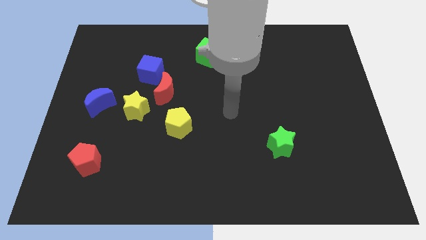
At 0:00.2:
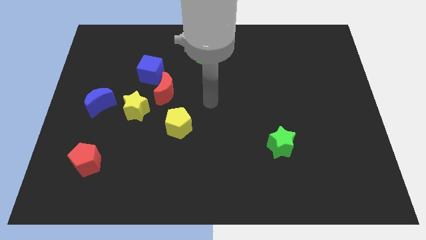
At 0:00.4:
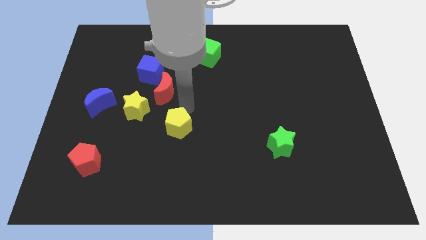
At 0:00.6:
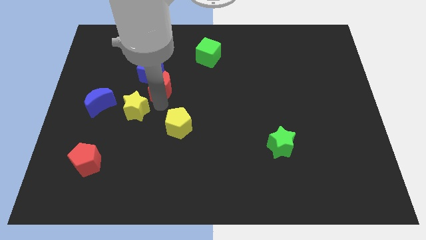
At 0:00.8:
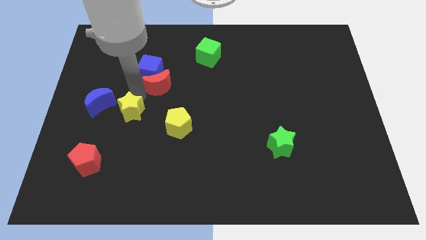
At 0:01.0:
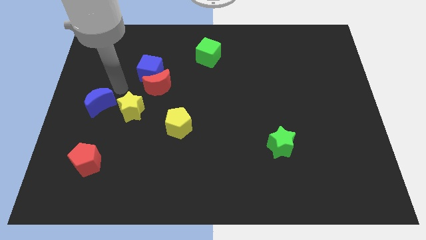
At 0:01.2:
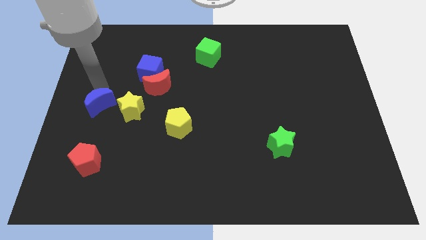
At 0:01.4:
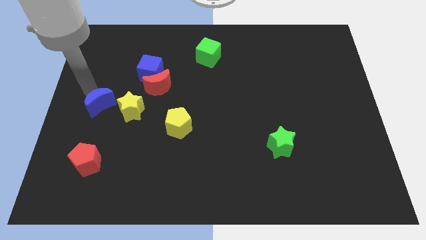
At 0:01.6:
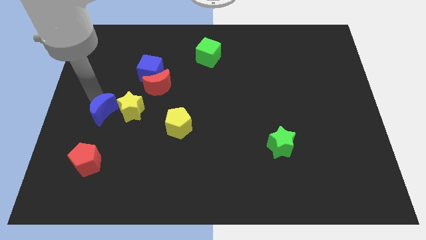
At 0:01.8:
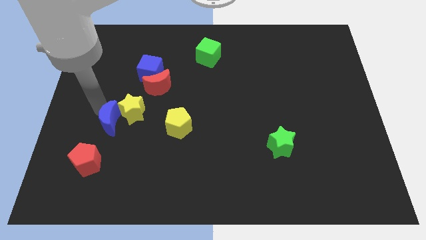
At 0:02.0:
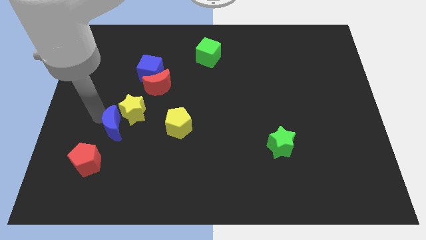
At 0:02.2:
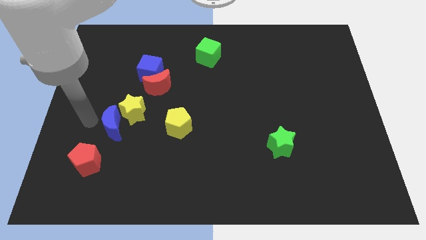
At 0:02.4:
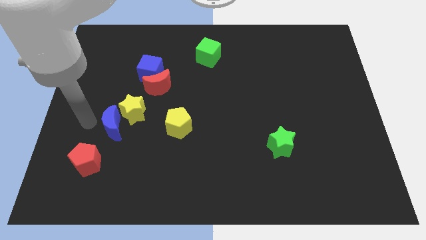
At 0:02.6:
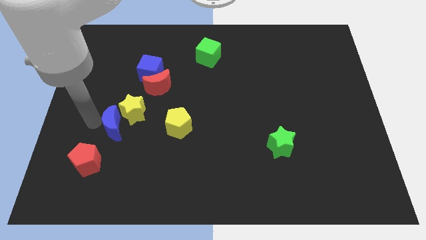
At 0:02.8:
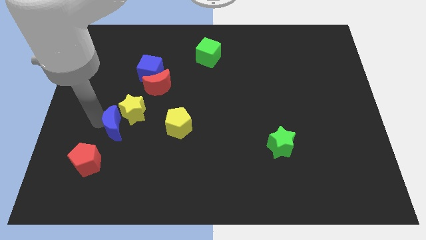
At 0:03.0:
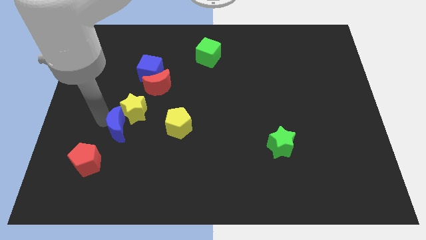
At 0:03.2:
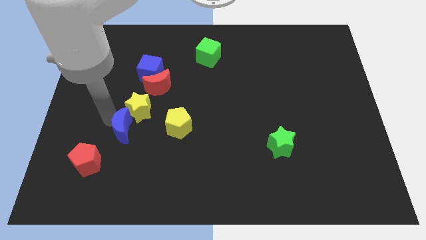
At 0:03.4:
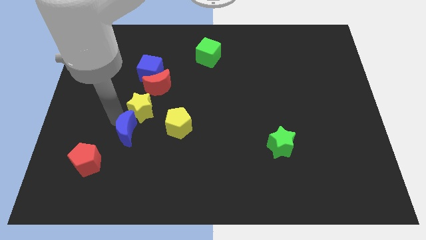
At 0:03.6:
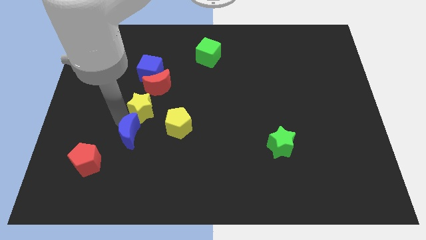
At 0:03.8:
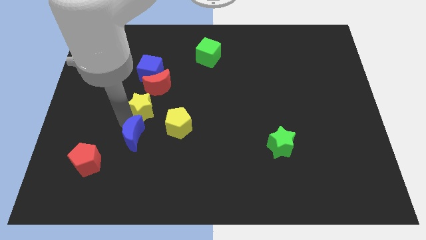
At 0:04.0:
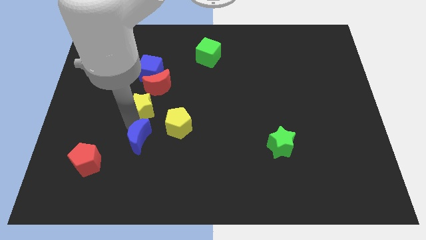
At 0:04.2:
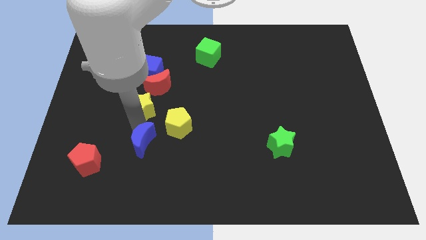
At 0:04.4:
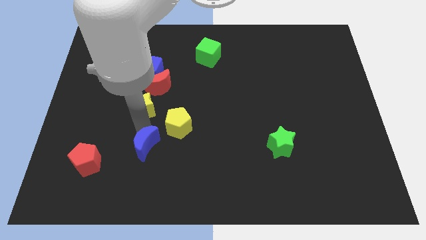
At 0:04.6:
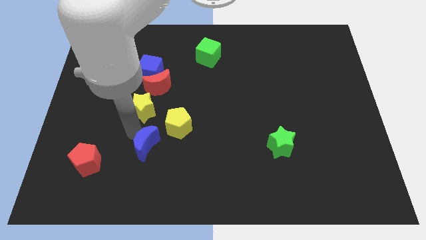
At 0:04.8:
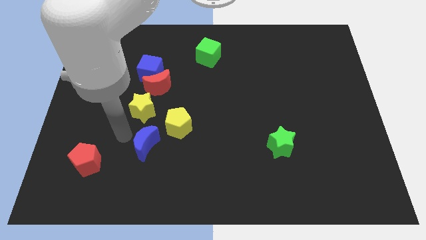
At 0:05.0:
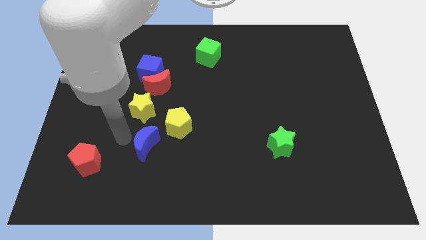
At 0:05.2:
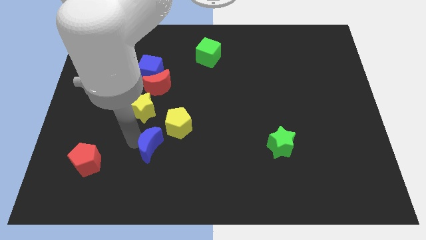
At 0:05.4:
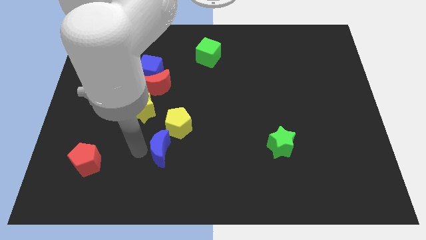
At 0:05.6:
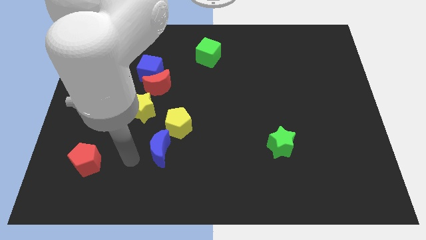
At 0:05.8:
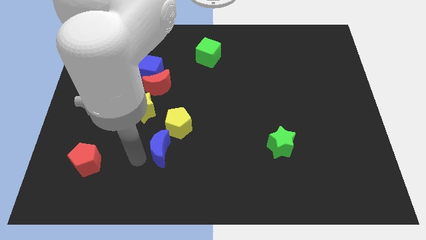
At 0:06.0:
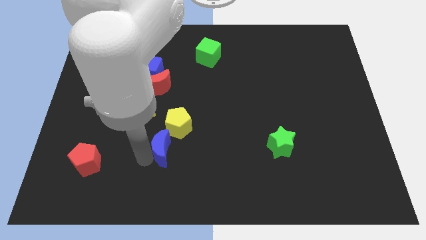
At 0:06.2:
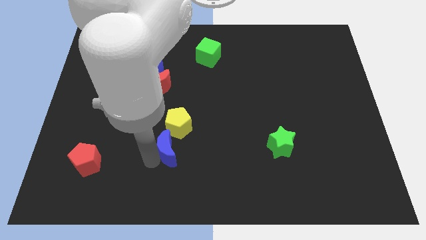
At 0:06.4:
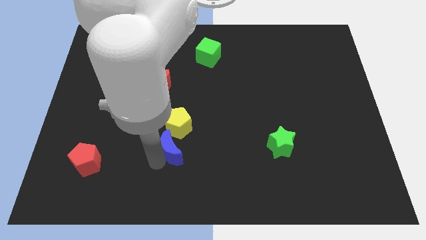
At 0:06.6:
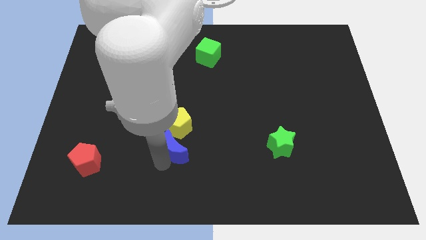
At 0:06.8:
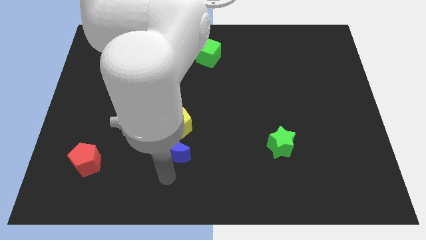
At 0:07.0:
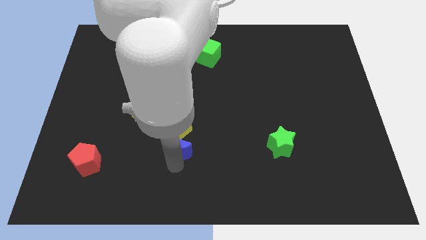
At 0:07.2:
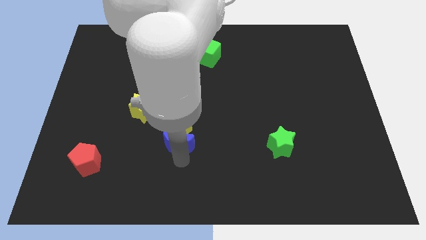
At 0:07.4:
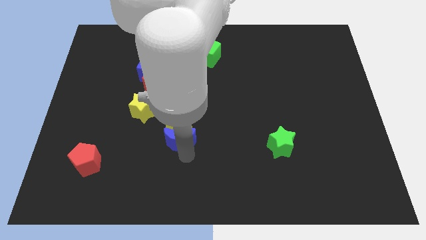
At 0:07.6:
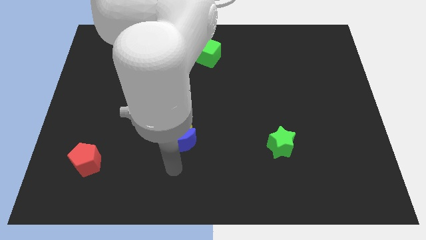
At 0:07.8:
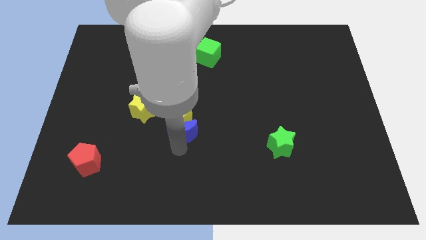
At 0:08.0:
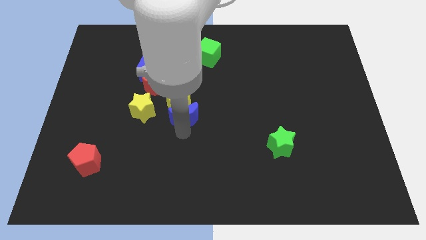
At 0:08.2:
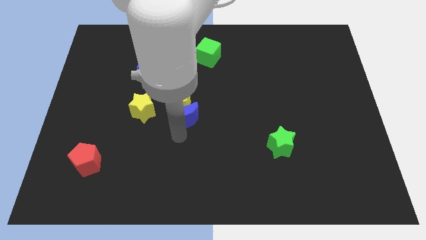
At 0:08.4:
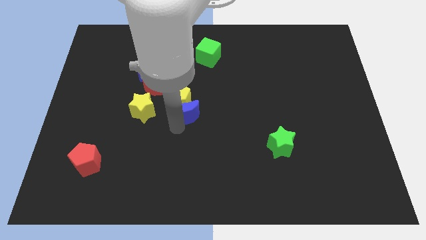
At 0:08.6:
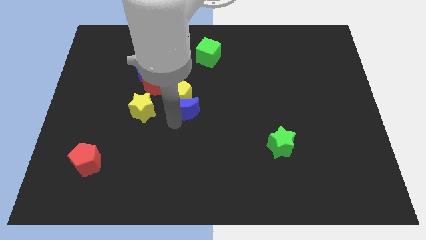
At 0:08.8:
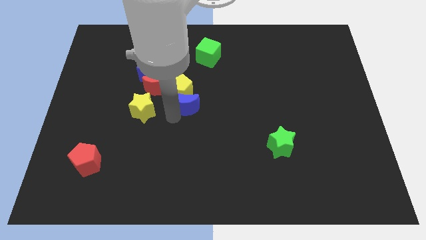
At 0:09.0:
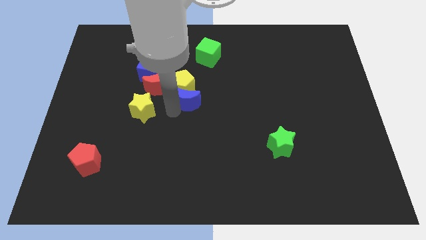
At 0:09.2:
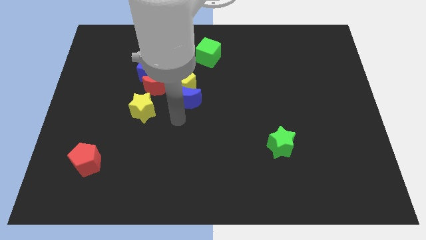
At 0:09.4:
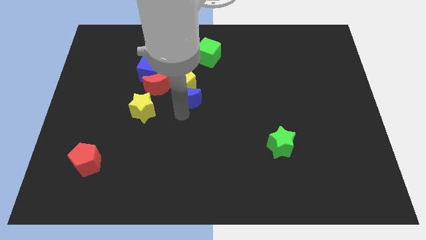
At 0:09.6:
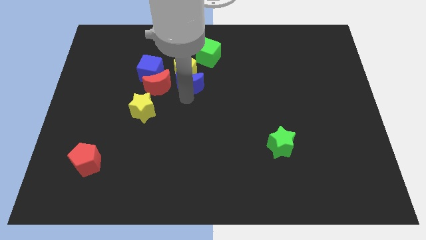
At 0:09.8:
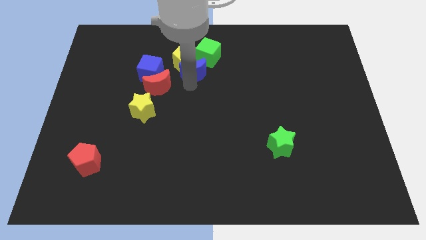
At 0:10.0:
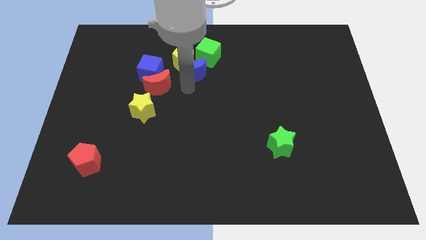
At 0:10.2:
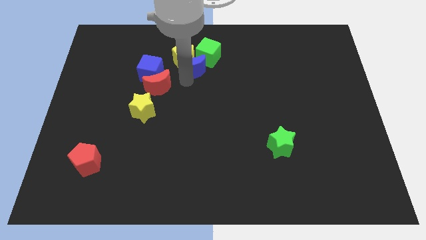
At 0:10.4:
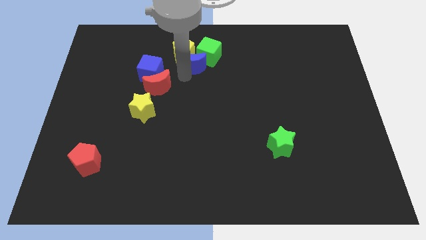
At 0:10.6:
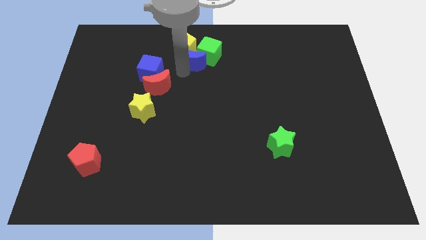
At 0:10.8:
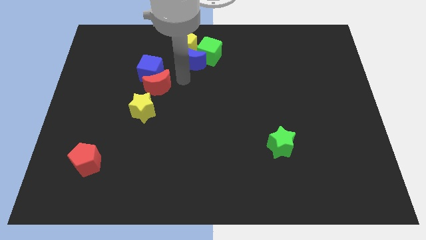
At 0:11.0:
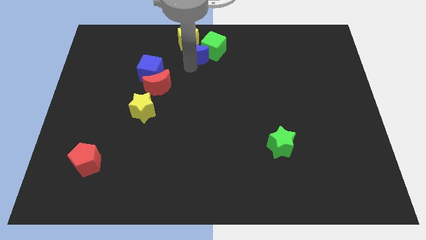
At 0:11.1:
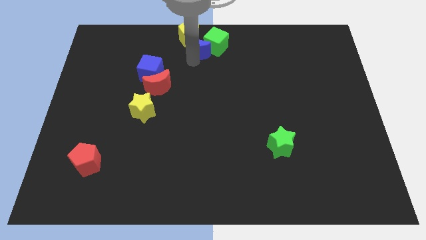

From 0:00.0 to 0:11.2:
push the blue moon to the towards your base

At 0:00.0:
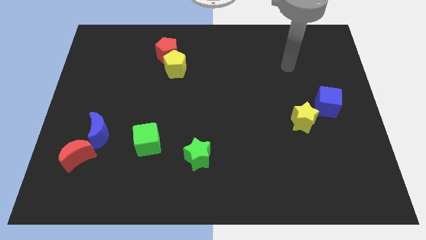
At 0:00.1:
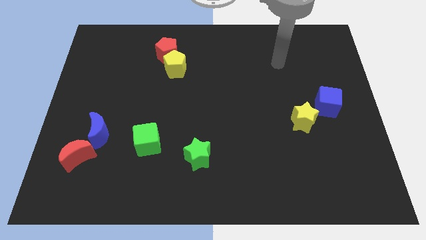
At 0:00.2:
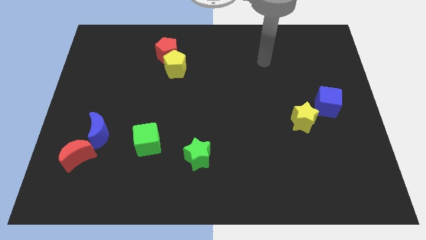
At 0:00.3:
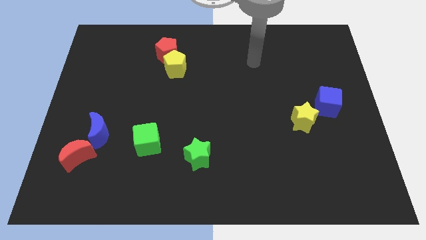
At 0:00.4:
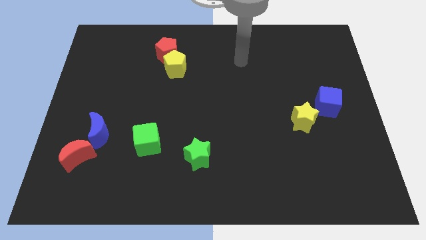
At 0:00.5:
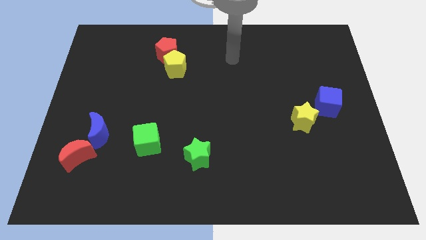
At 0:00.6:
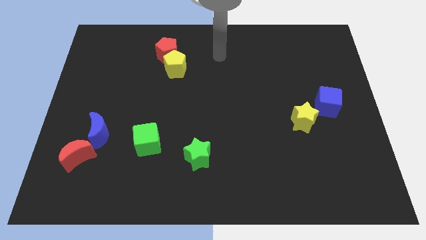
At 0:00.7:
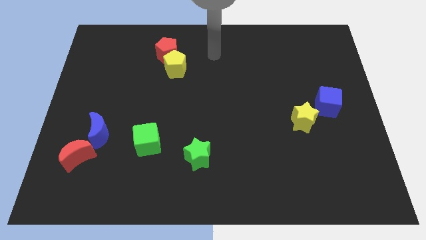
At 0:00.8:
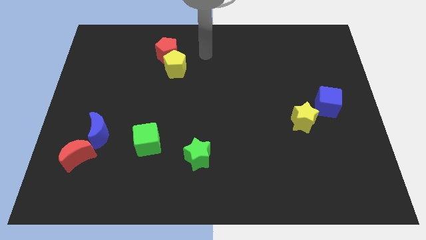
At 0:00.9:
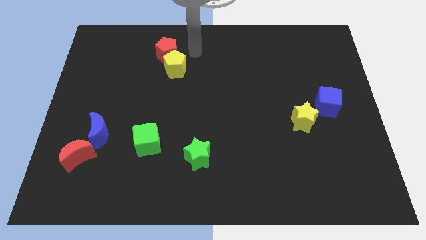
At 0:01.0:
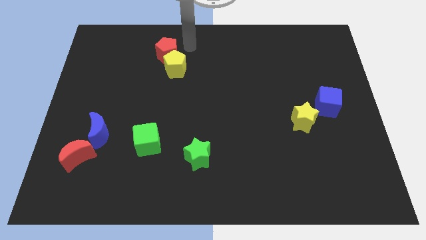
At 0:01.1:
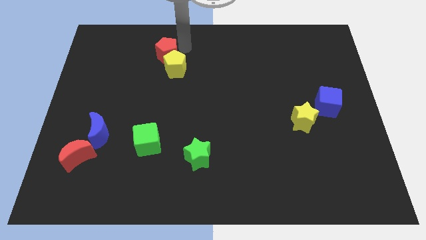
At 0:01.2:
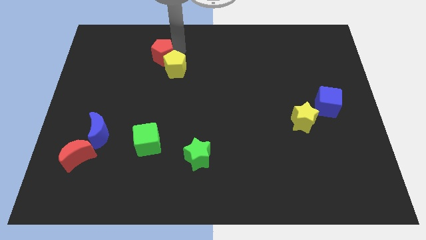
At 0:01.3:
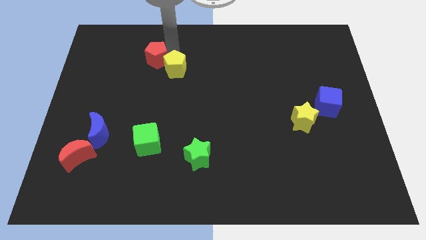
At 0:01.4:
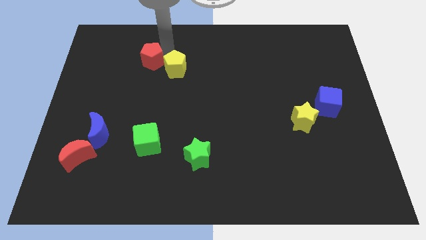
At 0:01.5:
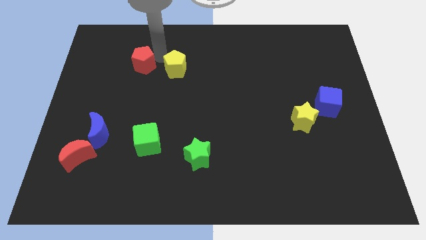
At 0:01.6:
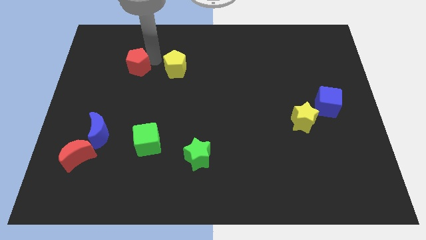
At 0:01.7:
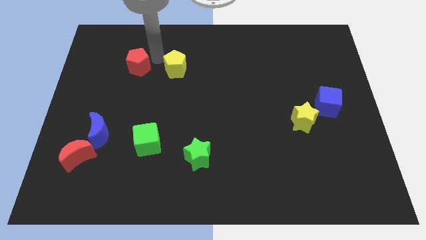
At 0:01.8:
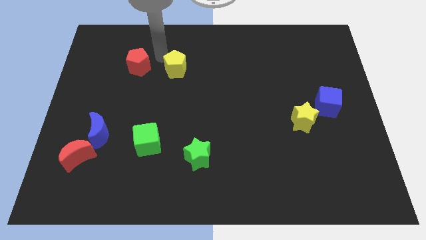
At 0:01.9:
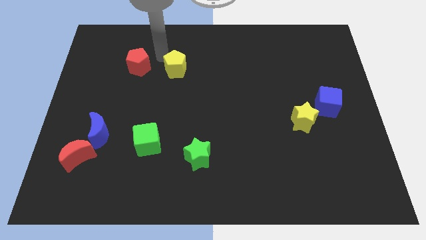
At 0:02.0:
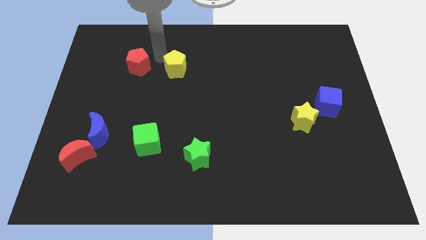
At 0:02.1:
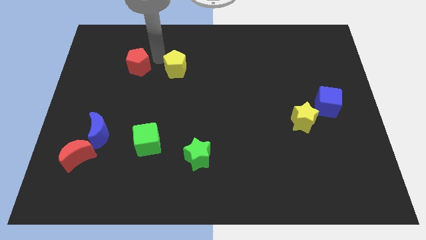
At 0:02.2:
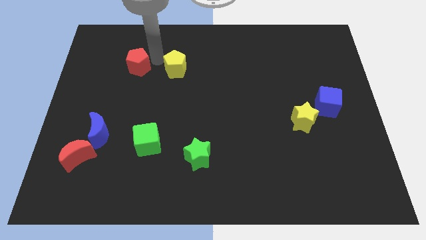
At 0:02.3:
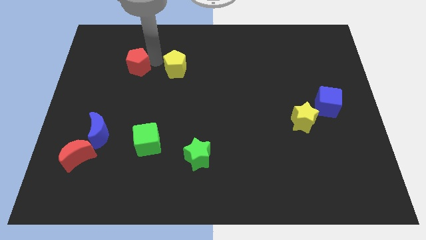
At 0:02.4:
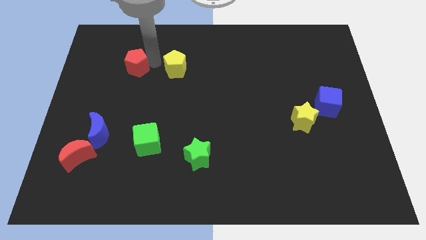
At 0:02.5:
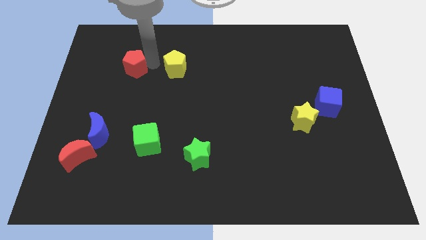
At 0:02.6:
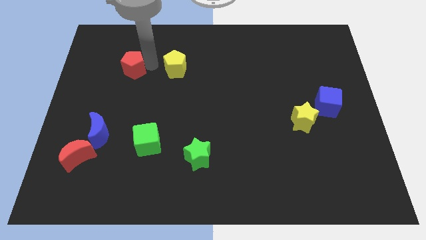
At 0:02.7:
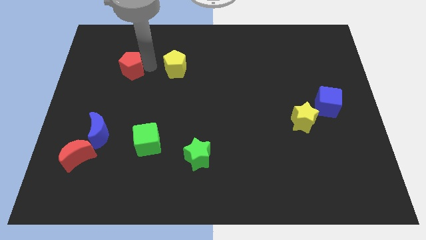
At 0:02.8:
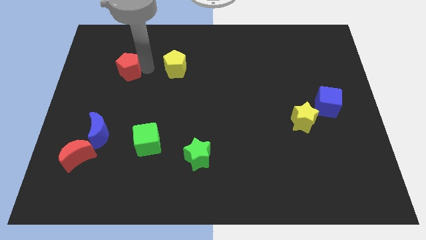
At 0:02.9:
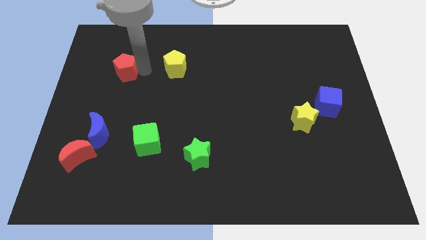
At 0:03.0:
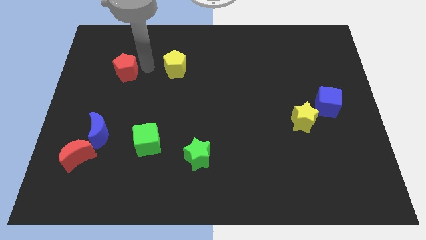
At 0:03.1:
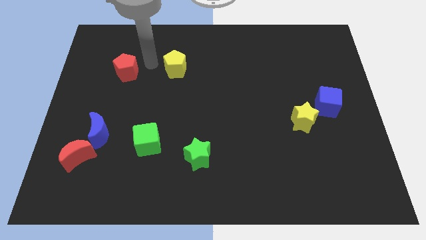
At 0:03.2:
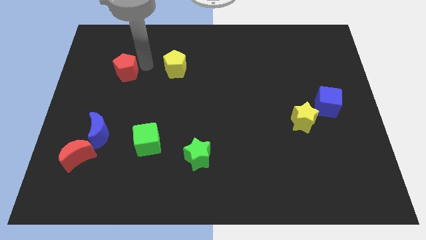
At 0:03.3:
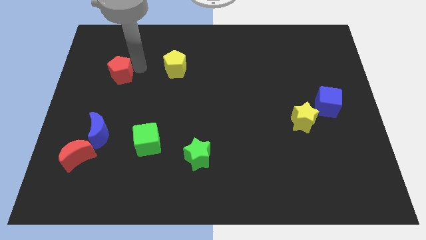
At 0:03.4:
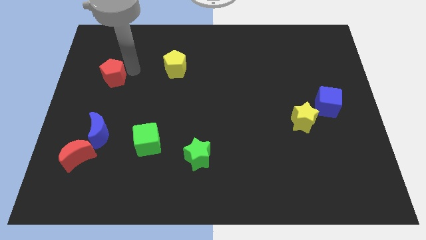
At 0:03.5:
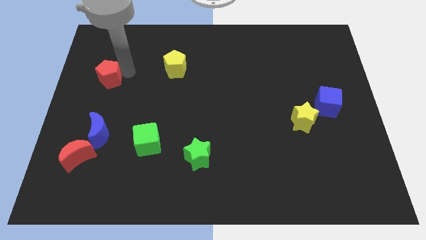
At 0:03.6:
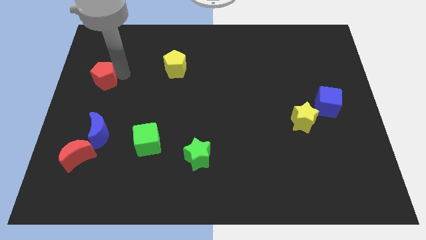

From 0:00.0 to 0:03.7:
put the red pentagon to the left side of the board
